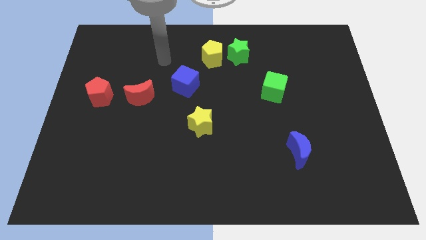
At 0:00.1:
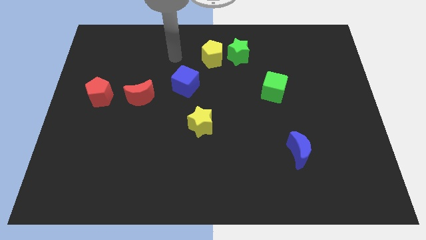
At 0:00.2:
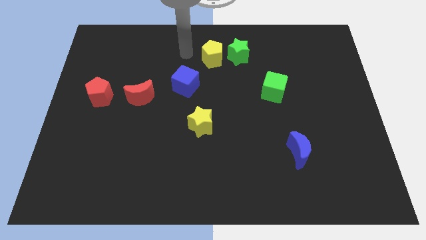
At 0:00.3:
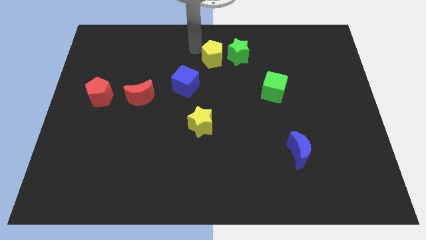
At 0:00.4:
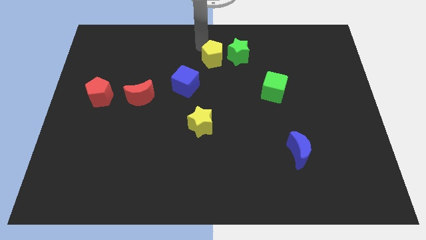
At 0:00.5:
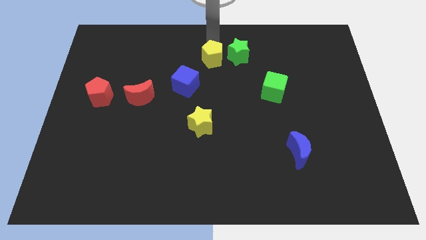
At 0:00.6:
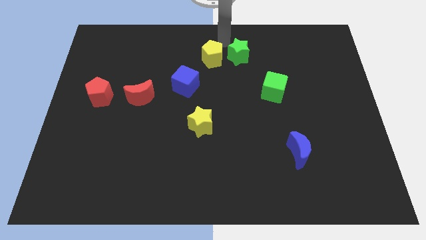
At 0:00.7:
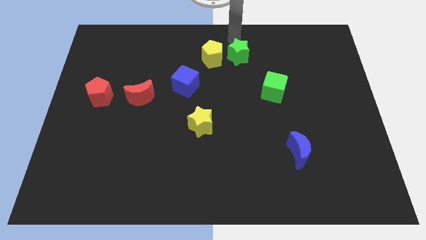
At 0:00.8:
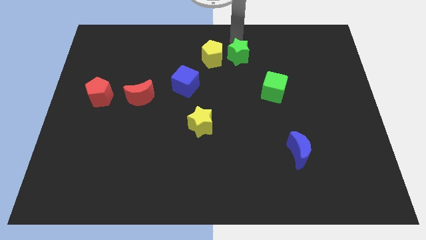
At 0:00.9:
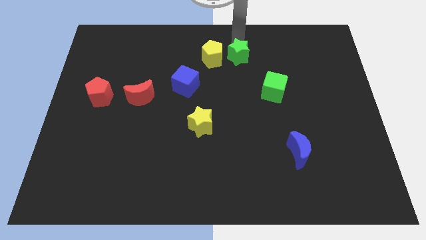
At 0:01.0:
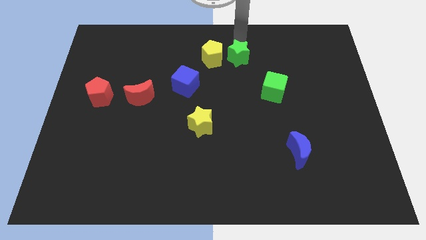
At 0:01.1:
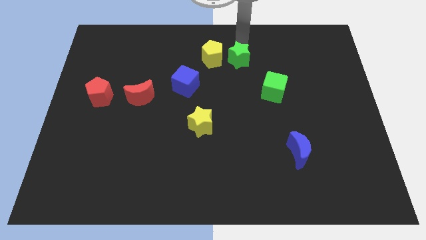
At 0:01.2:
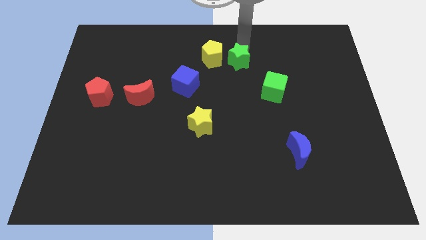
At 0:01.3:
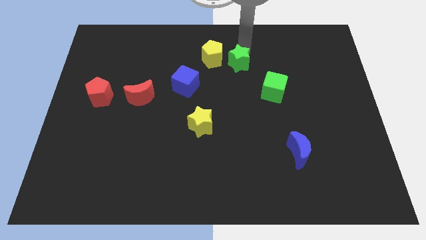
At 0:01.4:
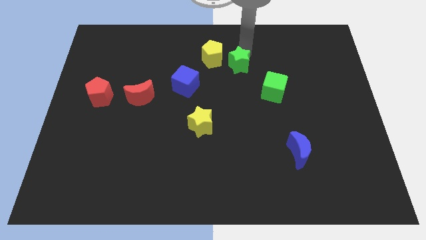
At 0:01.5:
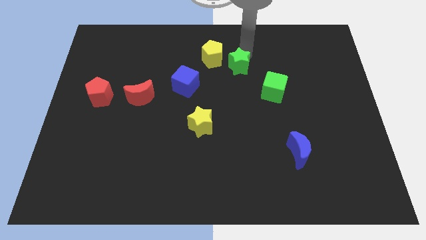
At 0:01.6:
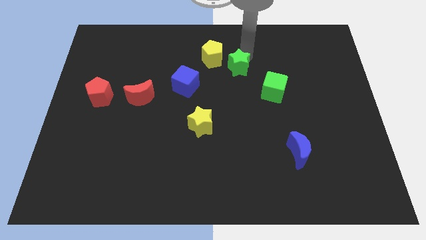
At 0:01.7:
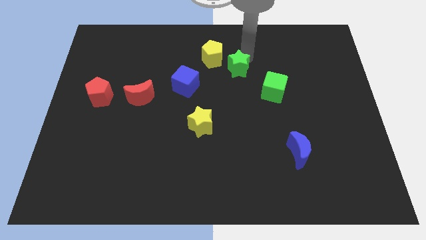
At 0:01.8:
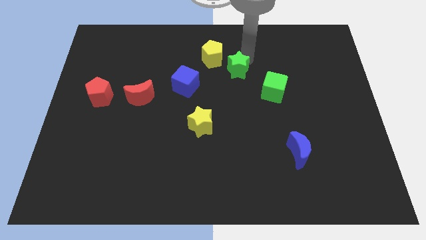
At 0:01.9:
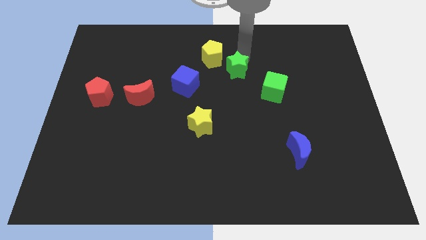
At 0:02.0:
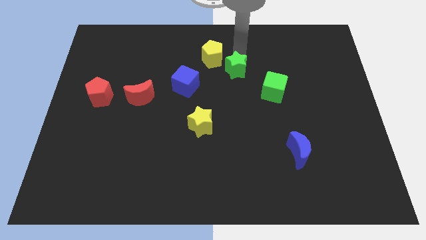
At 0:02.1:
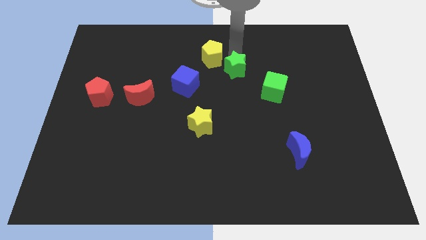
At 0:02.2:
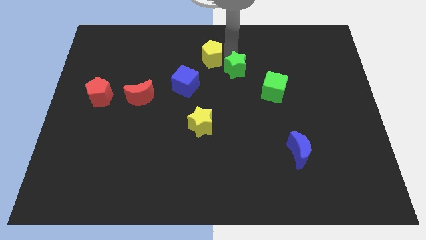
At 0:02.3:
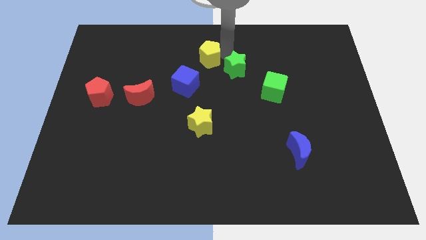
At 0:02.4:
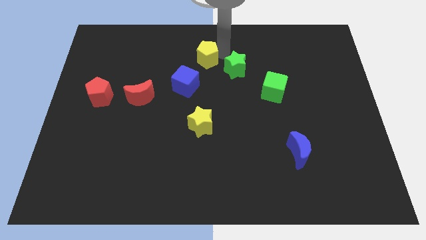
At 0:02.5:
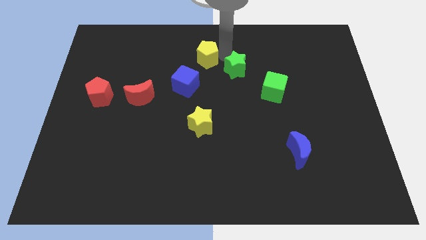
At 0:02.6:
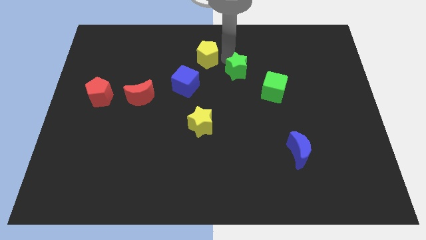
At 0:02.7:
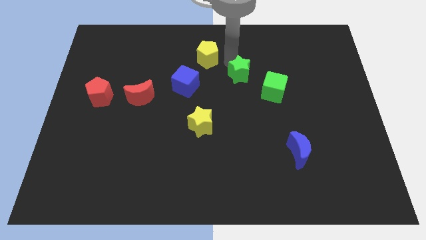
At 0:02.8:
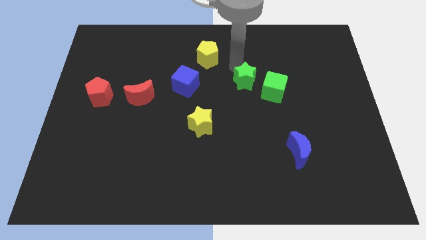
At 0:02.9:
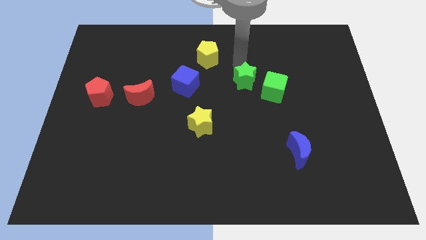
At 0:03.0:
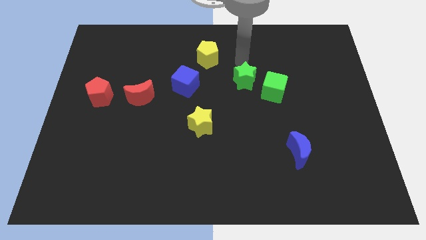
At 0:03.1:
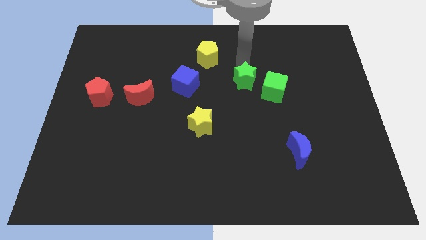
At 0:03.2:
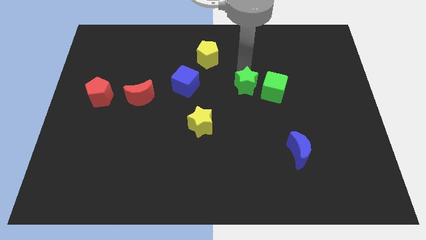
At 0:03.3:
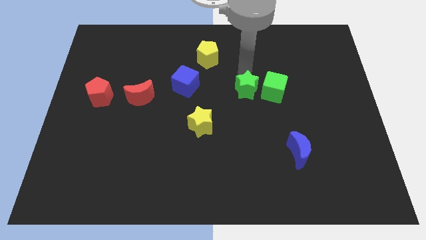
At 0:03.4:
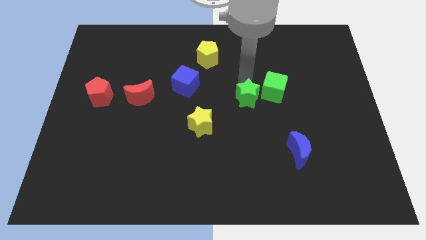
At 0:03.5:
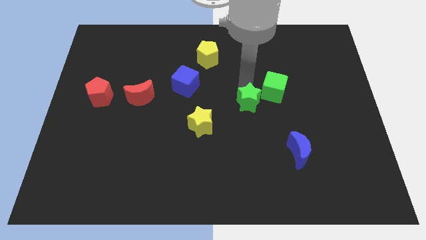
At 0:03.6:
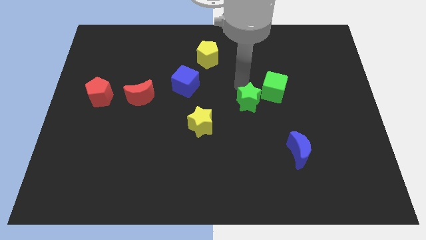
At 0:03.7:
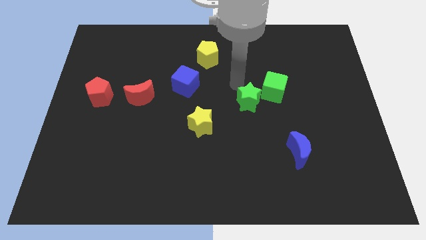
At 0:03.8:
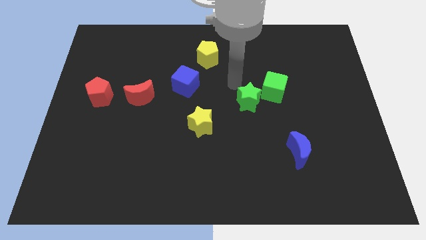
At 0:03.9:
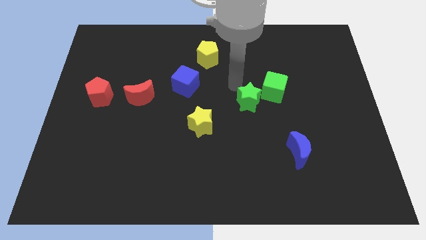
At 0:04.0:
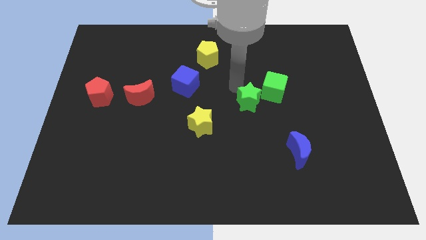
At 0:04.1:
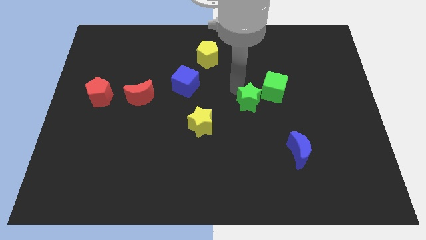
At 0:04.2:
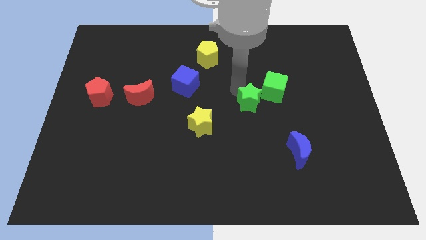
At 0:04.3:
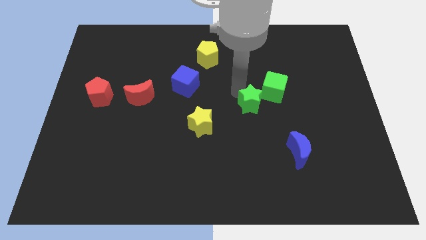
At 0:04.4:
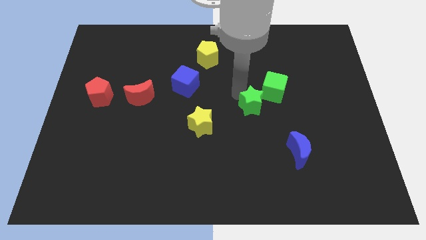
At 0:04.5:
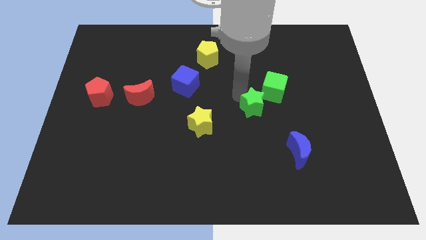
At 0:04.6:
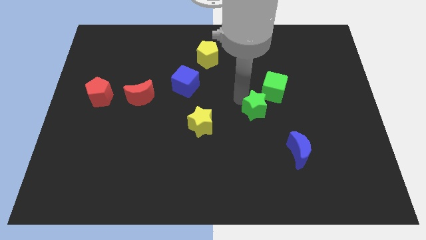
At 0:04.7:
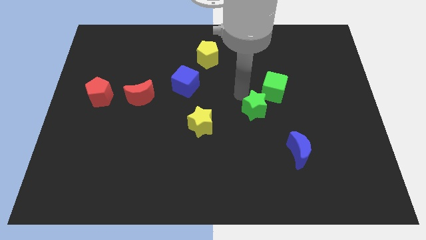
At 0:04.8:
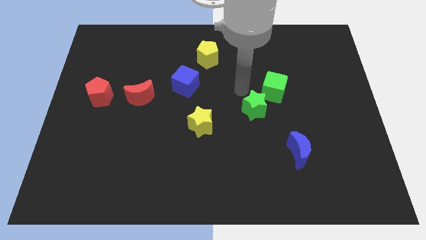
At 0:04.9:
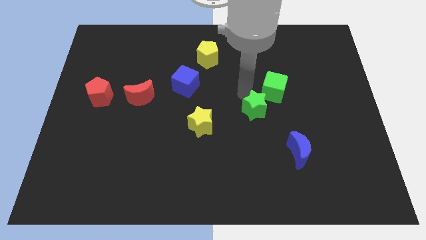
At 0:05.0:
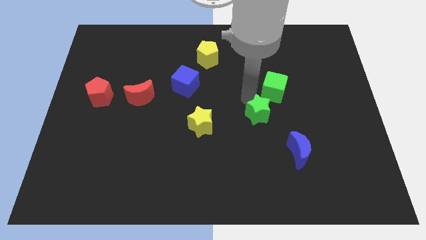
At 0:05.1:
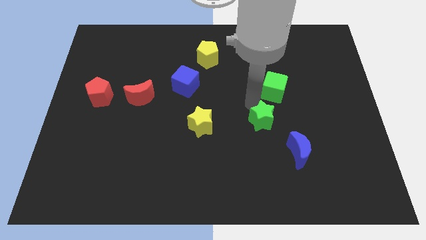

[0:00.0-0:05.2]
move the green star to the top left side of the blue moon
